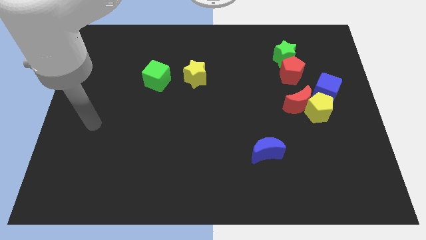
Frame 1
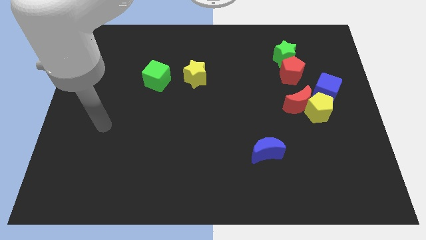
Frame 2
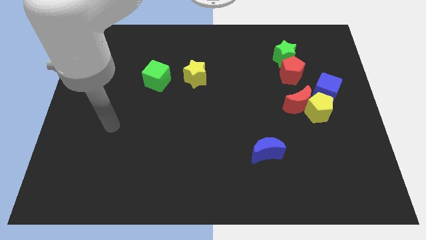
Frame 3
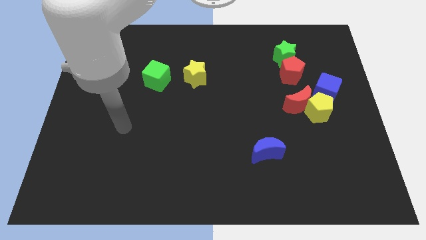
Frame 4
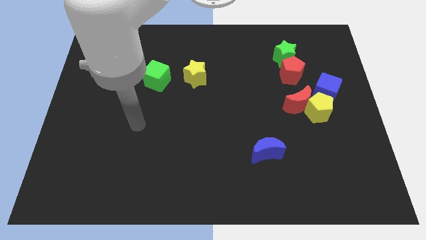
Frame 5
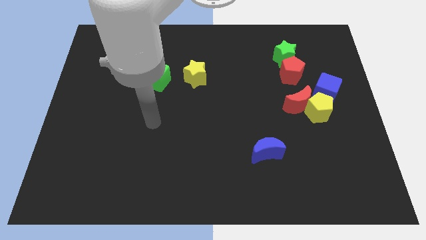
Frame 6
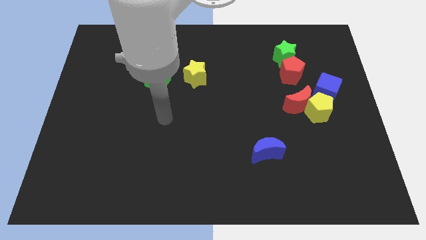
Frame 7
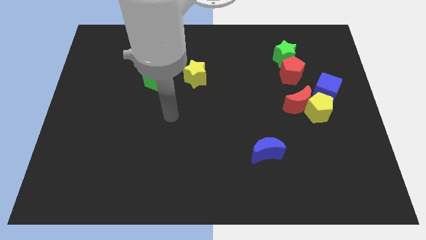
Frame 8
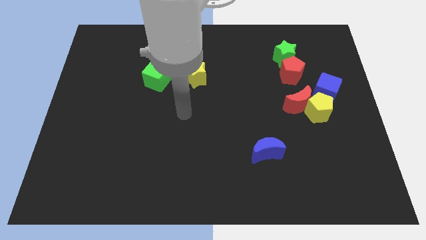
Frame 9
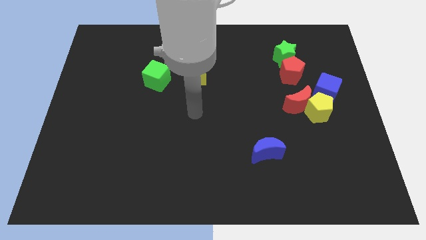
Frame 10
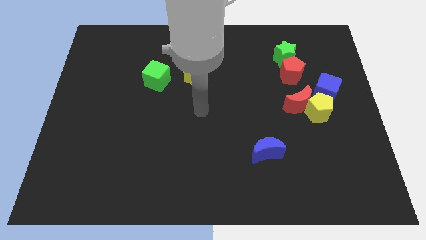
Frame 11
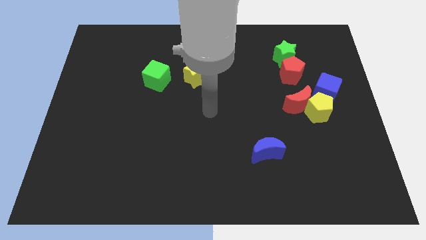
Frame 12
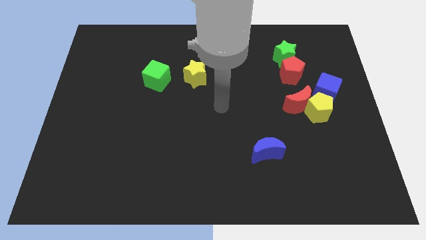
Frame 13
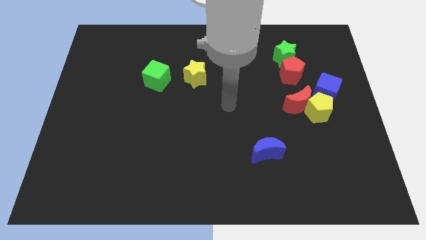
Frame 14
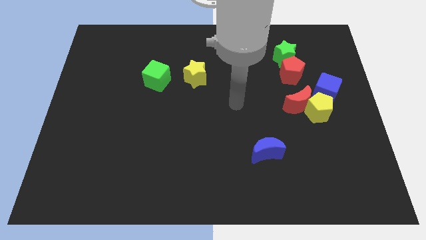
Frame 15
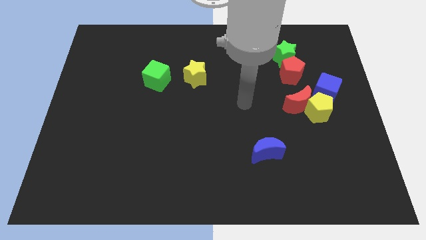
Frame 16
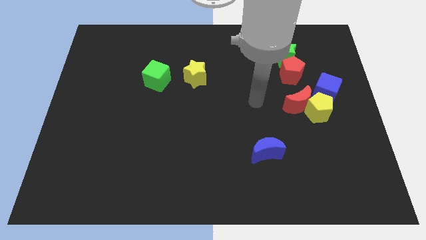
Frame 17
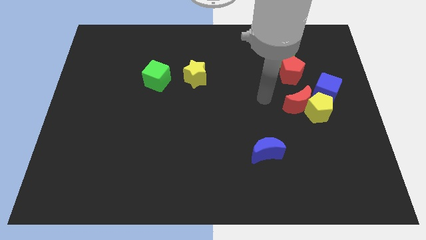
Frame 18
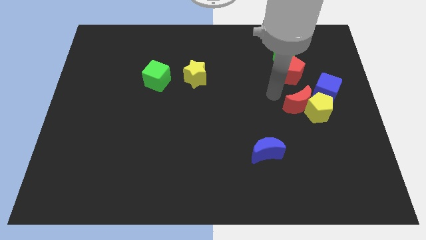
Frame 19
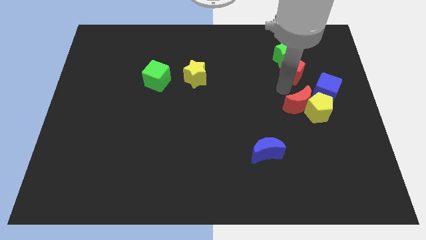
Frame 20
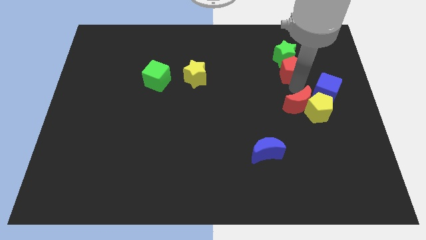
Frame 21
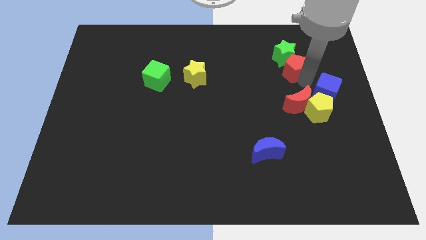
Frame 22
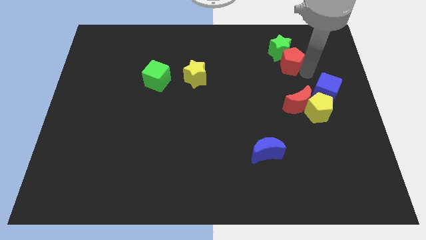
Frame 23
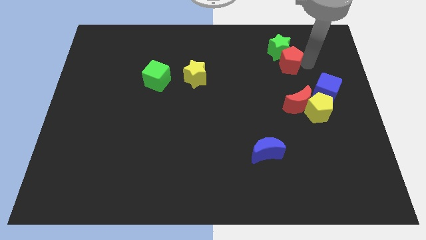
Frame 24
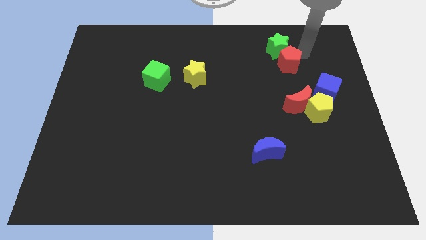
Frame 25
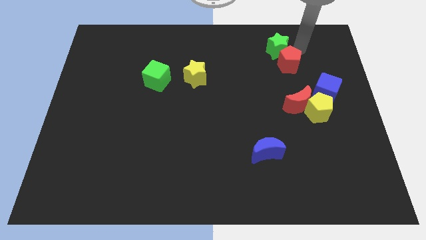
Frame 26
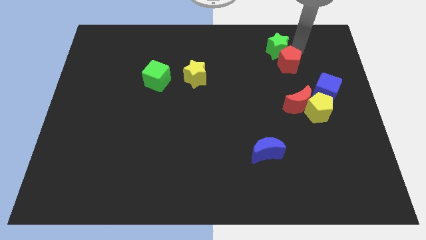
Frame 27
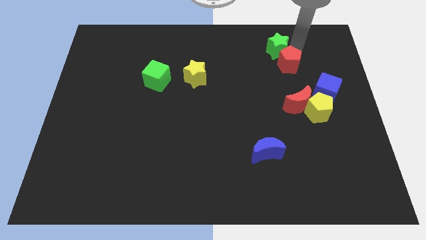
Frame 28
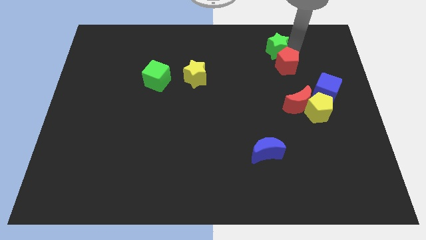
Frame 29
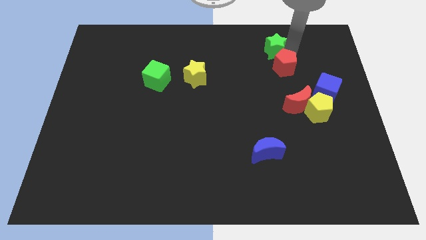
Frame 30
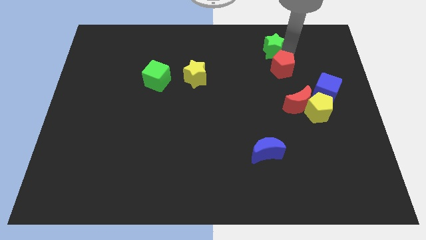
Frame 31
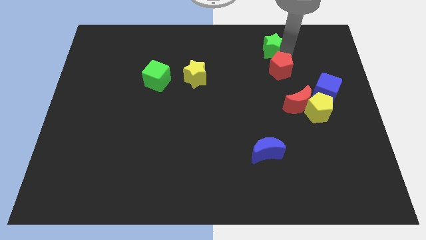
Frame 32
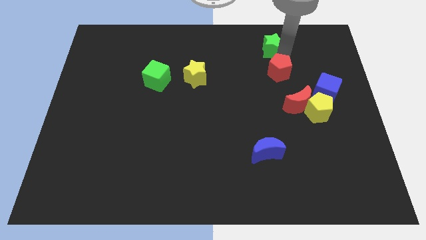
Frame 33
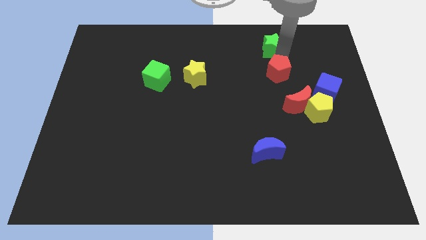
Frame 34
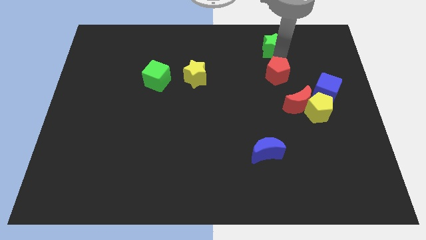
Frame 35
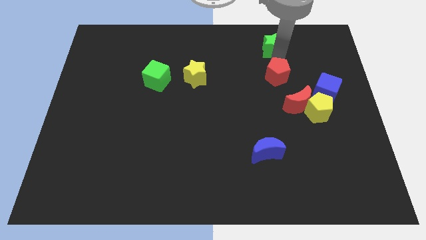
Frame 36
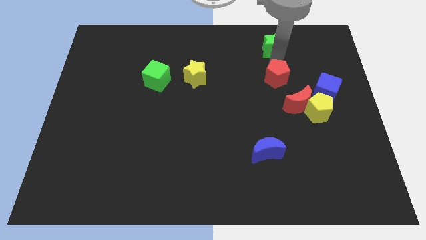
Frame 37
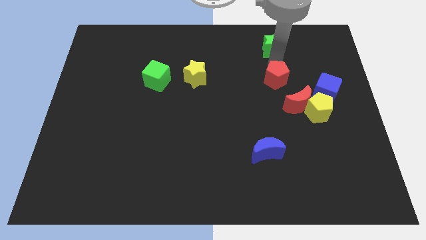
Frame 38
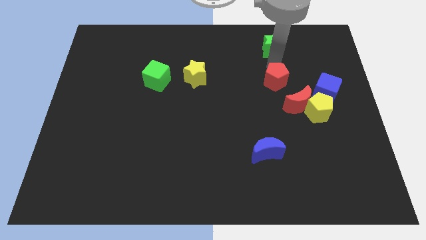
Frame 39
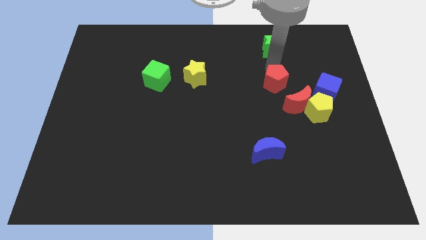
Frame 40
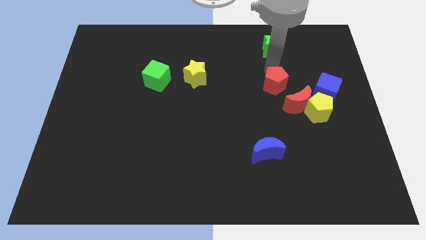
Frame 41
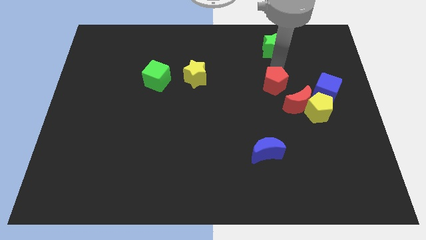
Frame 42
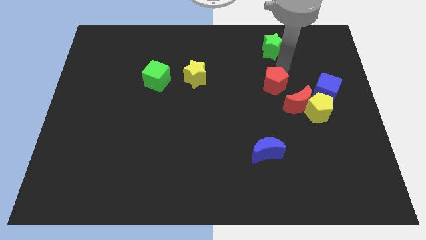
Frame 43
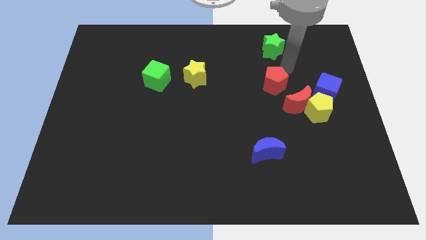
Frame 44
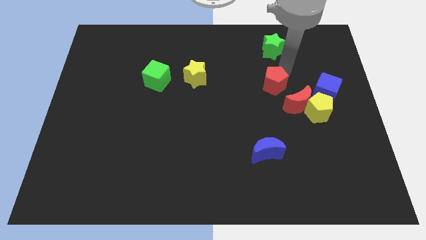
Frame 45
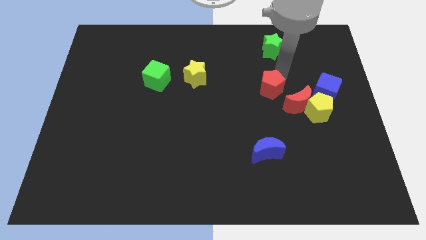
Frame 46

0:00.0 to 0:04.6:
slide the red pentagon down and left a bit

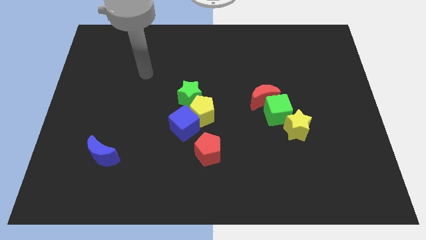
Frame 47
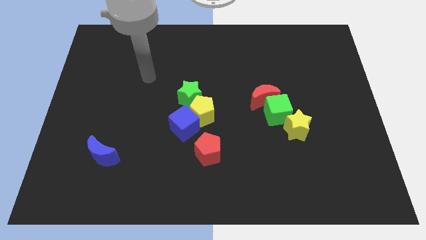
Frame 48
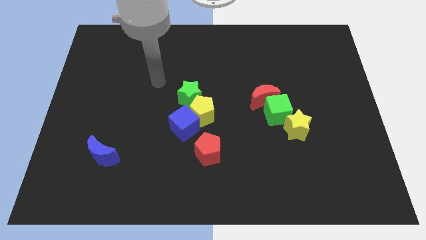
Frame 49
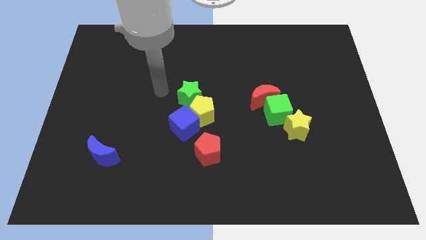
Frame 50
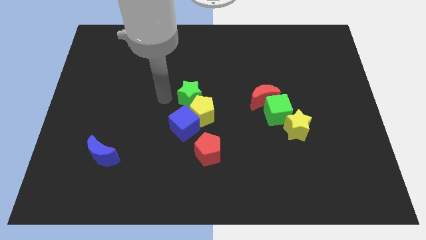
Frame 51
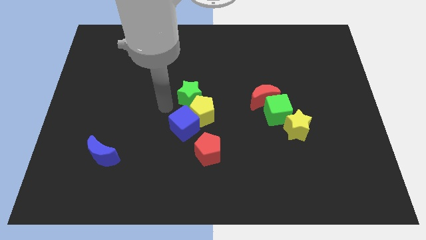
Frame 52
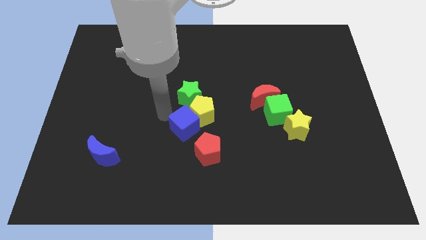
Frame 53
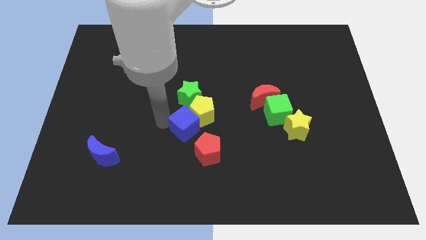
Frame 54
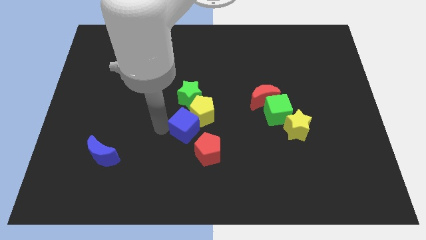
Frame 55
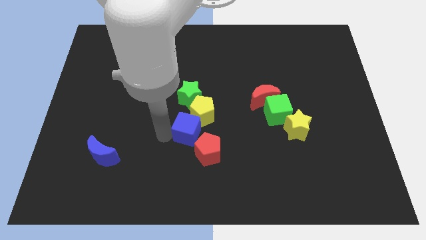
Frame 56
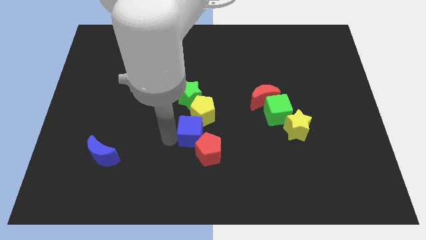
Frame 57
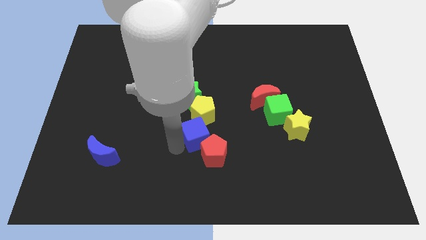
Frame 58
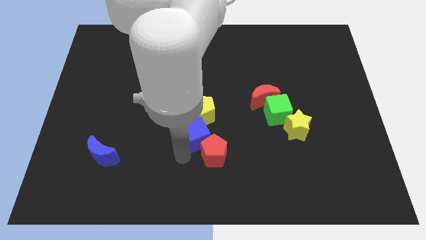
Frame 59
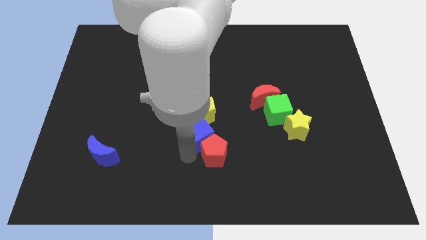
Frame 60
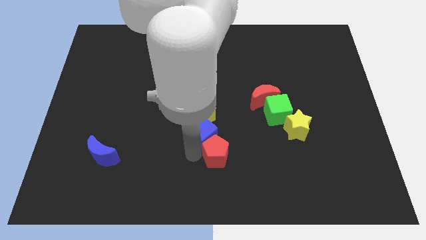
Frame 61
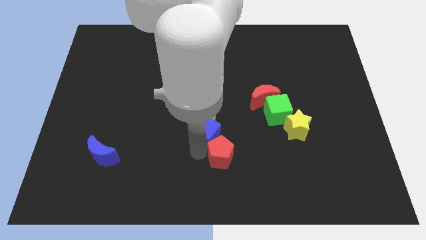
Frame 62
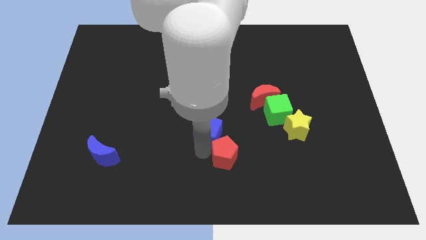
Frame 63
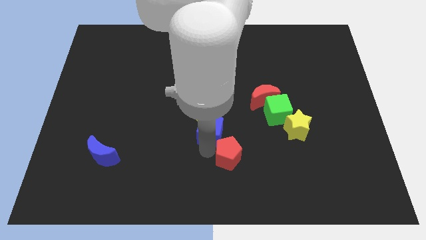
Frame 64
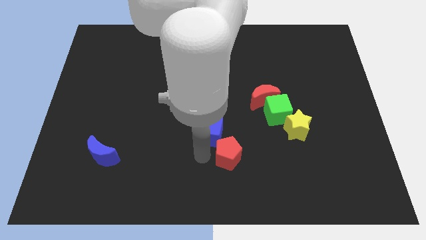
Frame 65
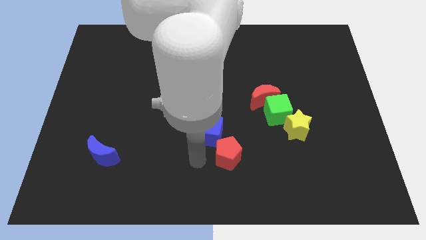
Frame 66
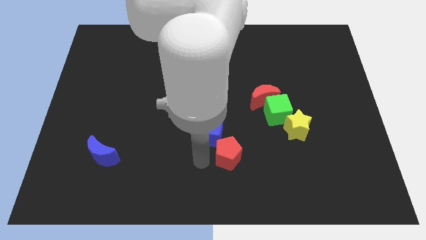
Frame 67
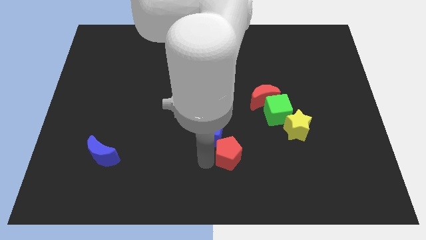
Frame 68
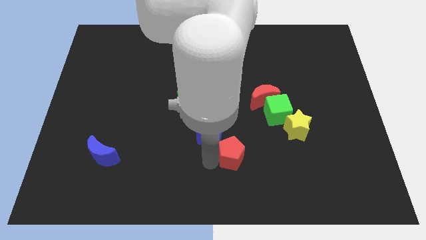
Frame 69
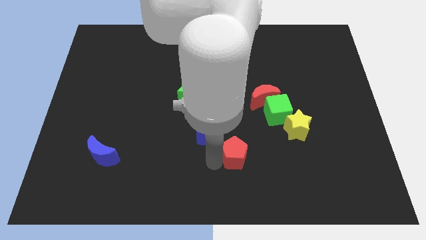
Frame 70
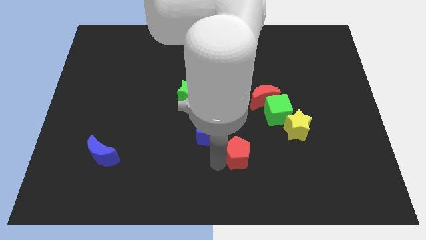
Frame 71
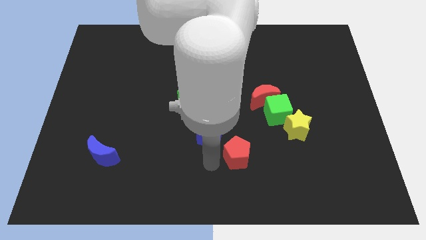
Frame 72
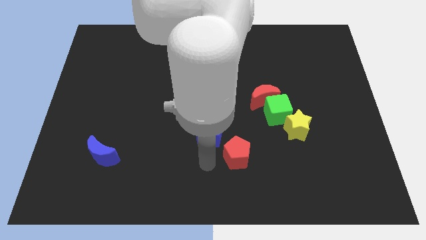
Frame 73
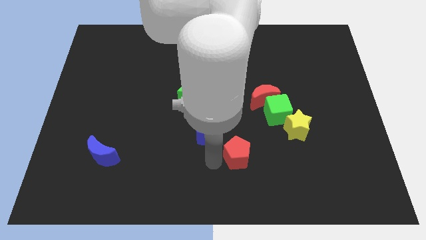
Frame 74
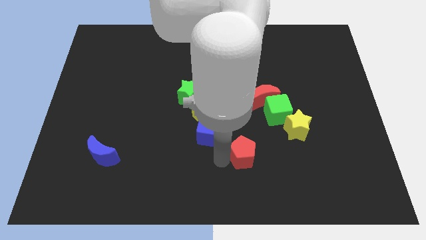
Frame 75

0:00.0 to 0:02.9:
slightly push the red pentagon right
